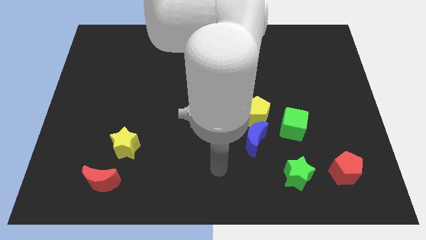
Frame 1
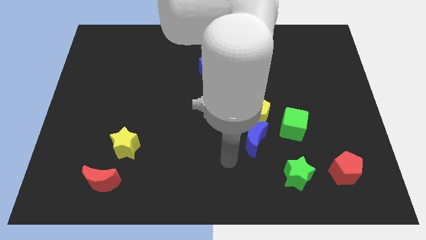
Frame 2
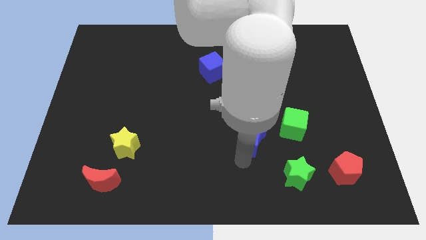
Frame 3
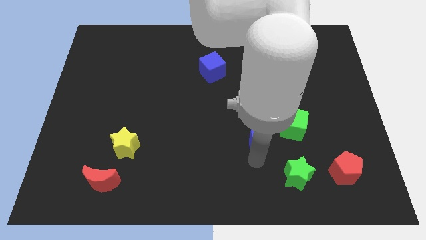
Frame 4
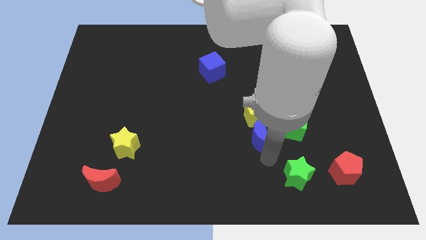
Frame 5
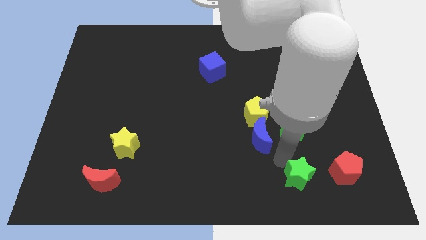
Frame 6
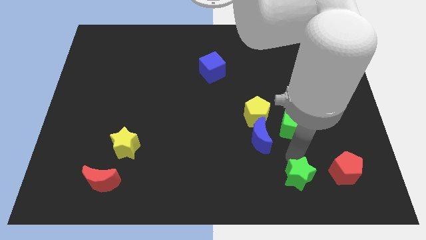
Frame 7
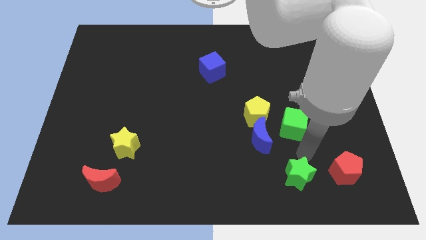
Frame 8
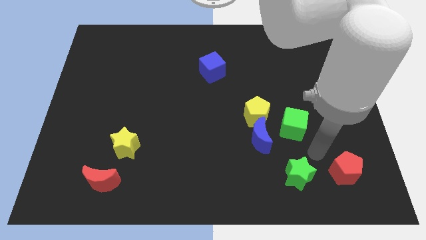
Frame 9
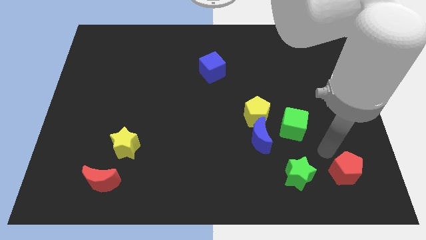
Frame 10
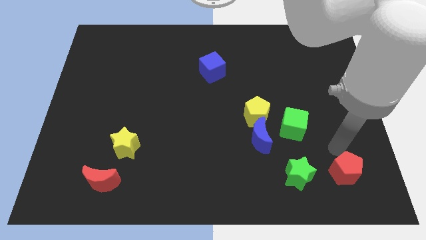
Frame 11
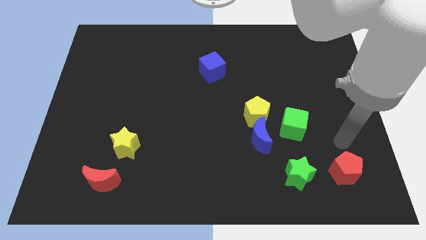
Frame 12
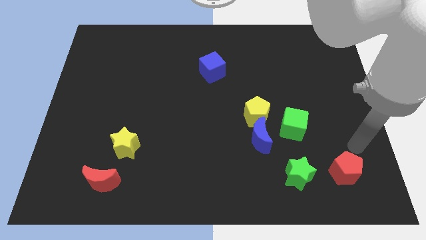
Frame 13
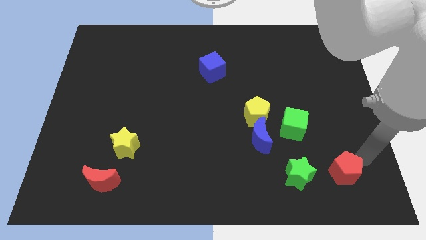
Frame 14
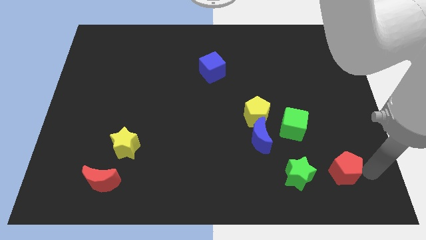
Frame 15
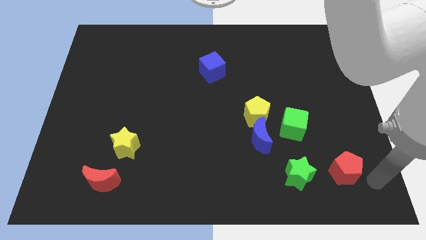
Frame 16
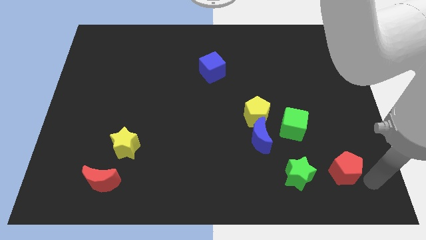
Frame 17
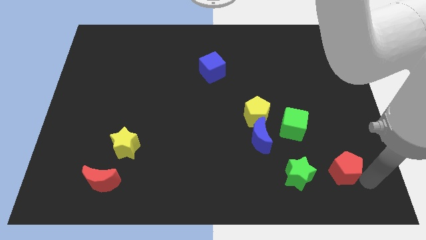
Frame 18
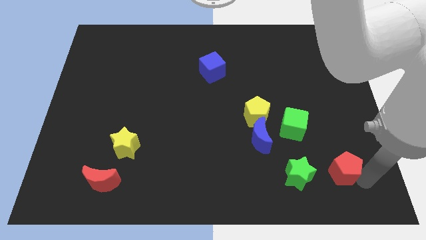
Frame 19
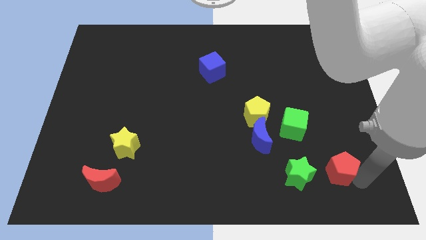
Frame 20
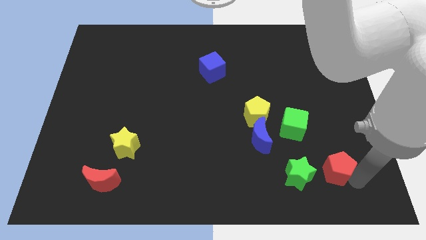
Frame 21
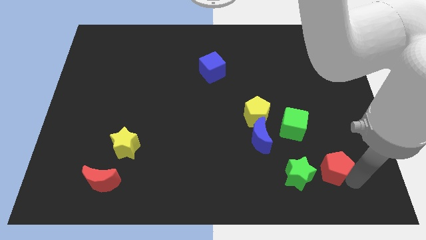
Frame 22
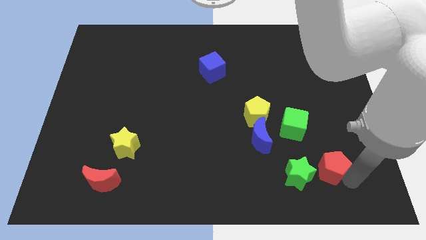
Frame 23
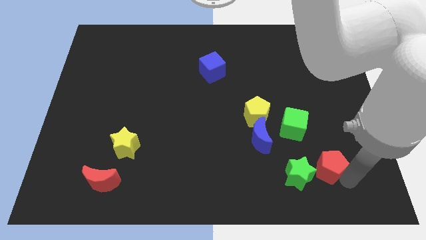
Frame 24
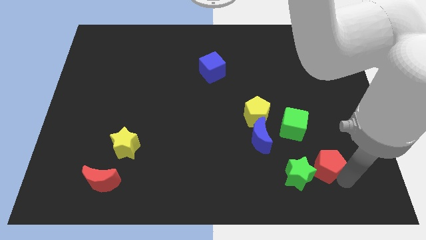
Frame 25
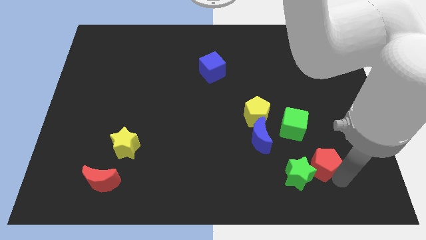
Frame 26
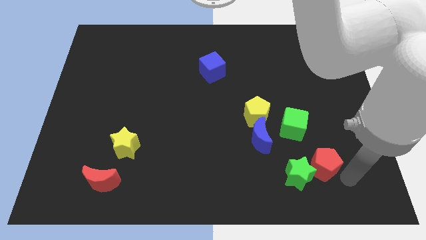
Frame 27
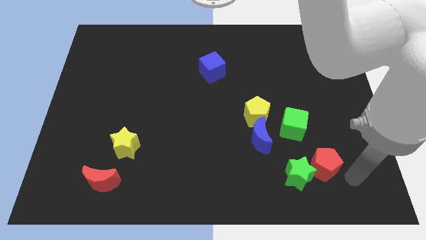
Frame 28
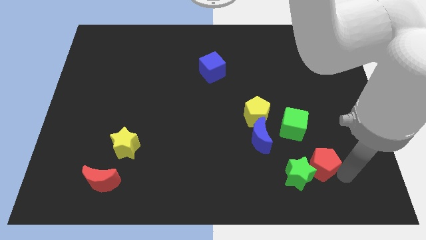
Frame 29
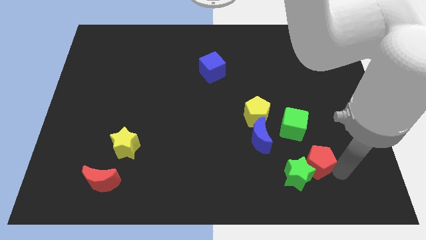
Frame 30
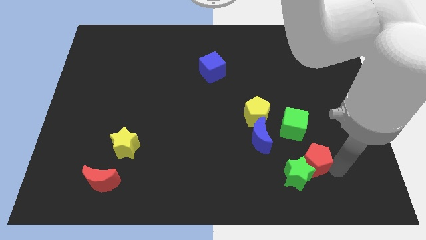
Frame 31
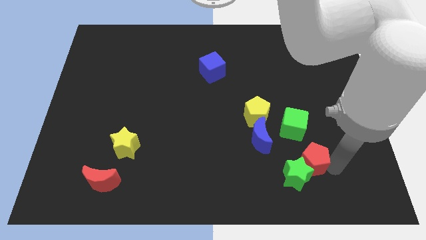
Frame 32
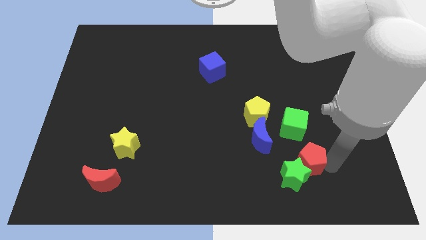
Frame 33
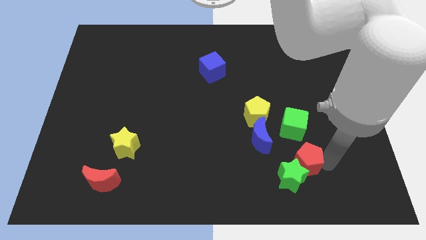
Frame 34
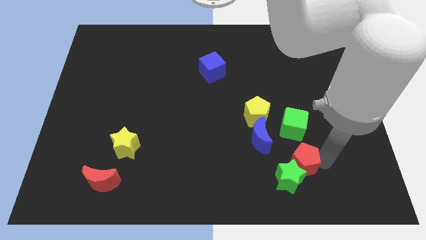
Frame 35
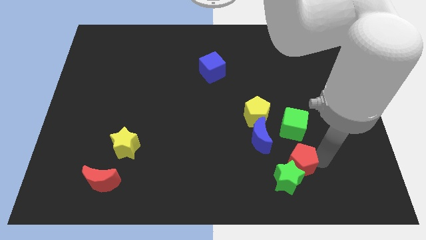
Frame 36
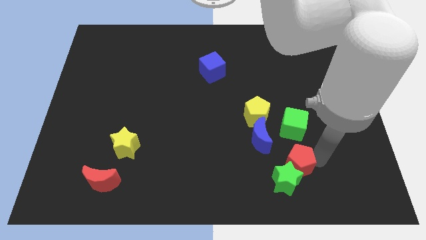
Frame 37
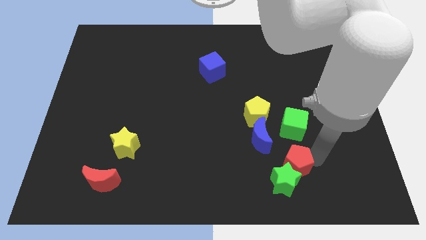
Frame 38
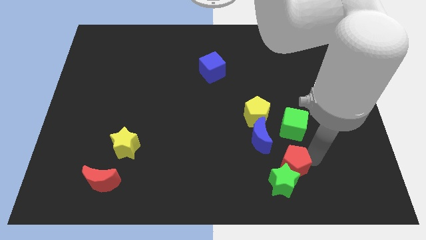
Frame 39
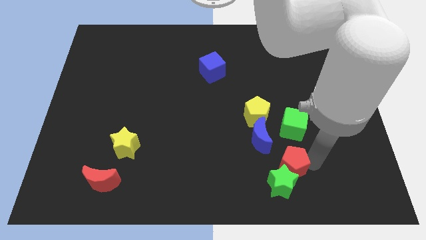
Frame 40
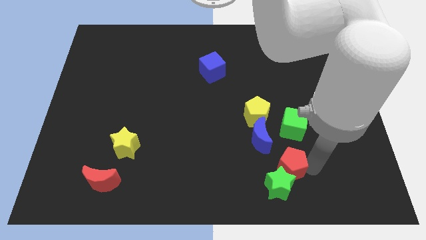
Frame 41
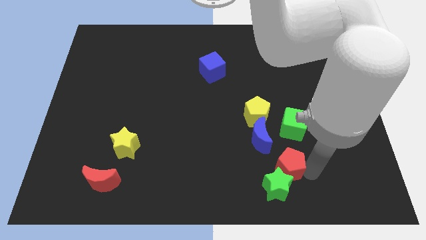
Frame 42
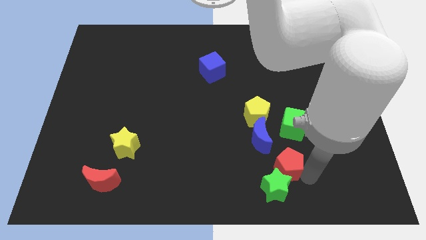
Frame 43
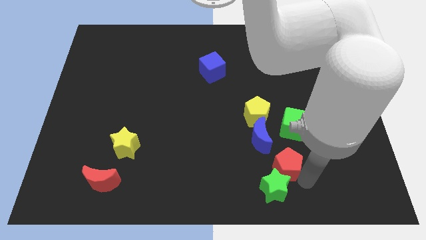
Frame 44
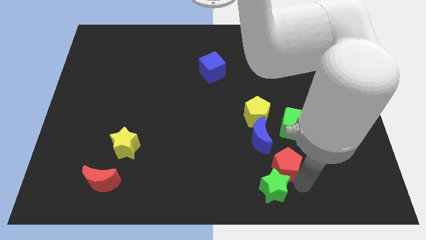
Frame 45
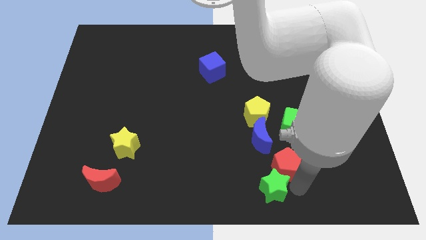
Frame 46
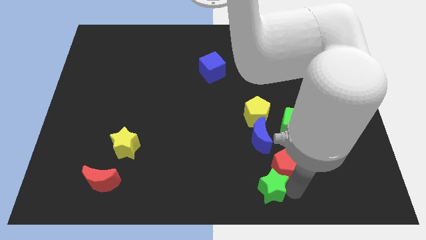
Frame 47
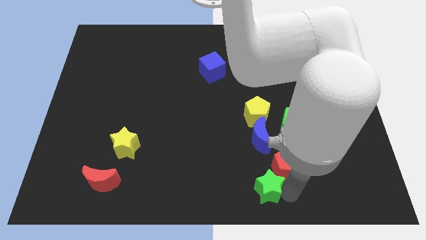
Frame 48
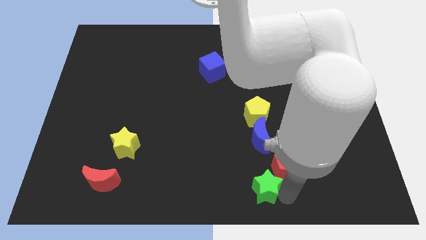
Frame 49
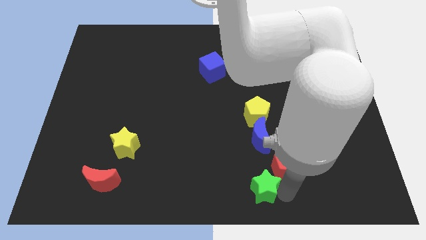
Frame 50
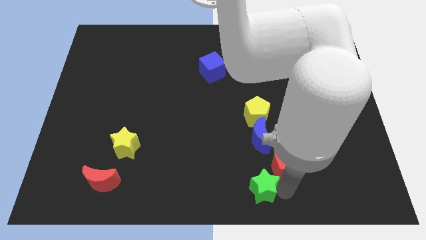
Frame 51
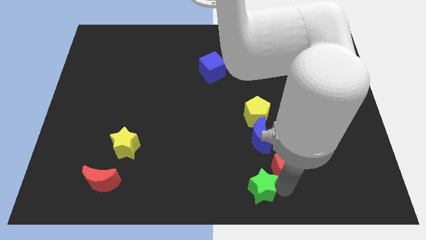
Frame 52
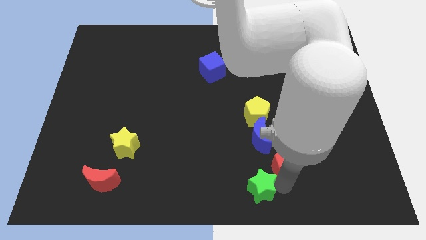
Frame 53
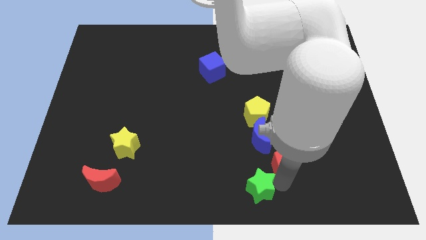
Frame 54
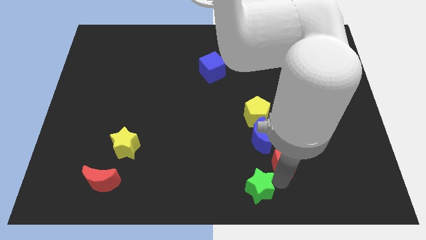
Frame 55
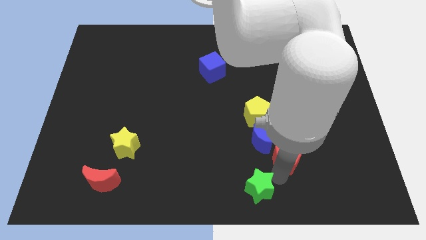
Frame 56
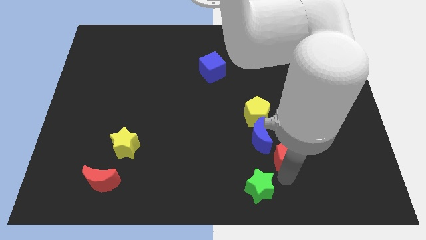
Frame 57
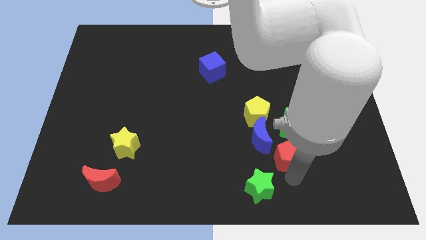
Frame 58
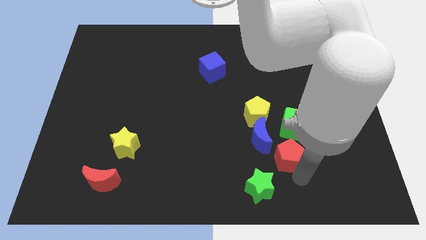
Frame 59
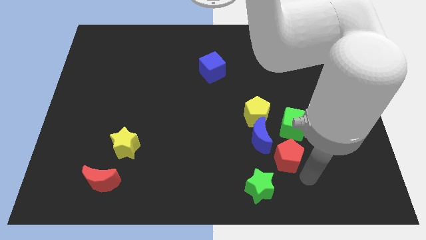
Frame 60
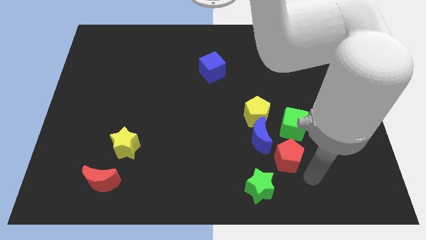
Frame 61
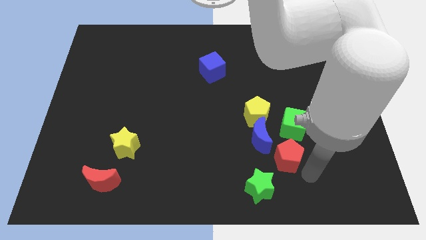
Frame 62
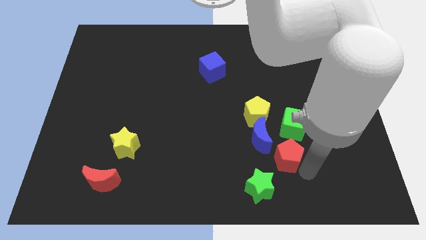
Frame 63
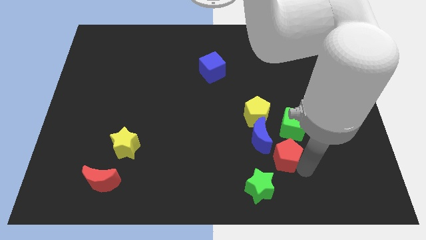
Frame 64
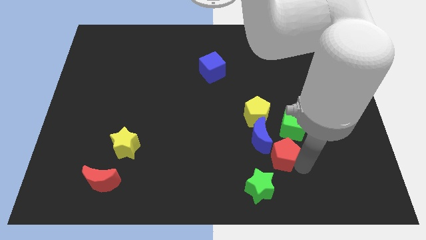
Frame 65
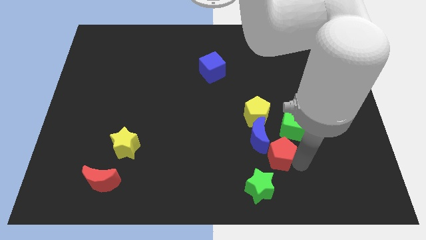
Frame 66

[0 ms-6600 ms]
move the red pentagon to the blue moon

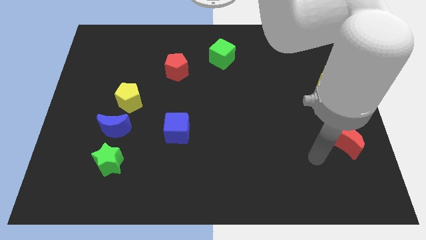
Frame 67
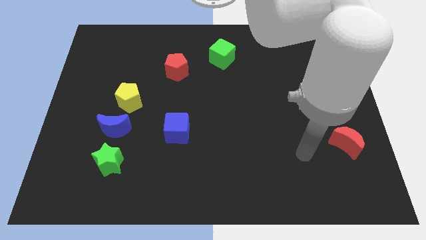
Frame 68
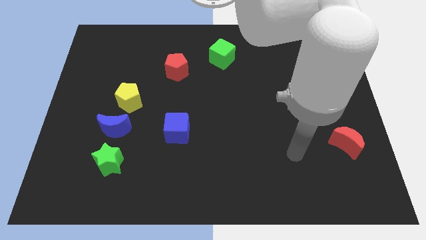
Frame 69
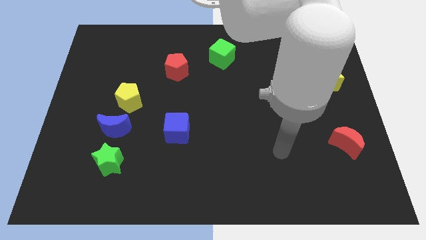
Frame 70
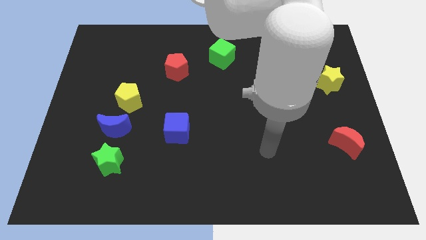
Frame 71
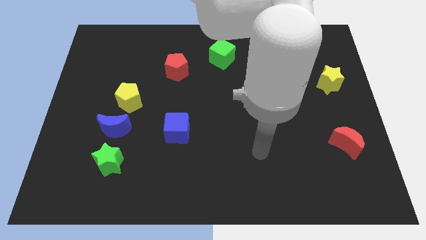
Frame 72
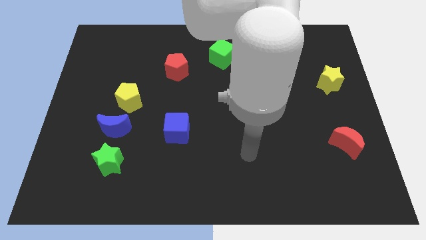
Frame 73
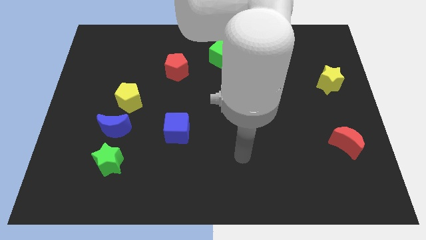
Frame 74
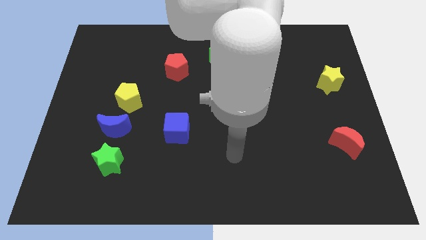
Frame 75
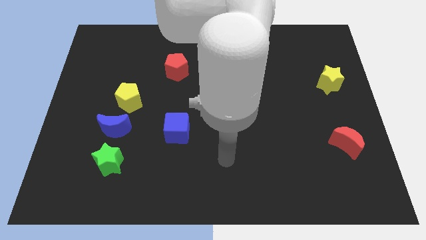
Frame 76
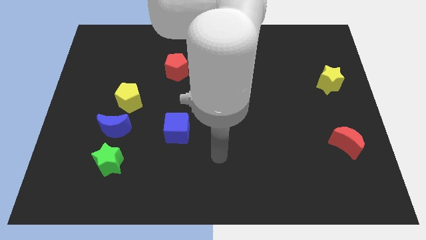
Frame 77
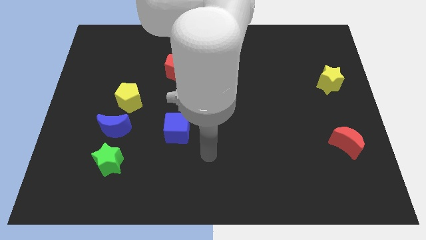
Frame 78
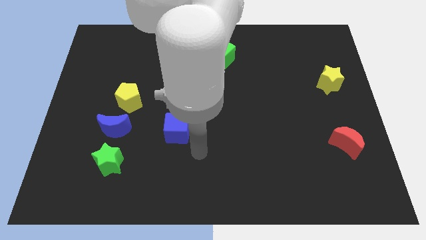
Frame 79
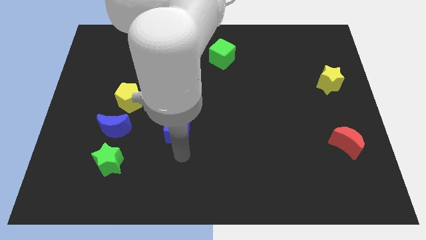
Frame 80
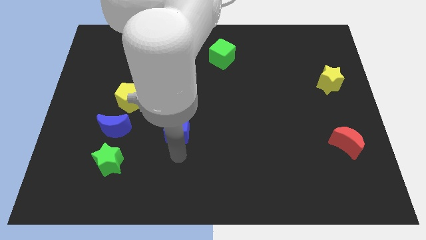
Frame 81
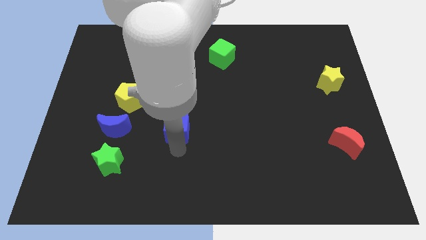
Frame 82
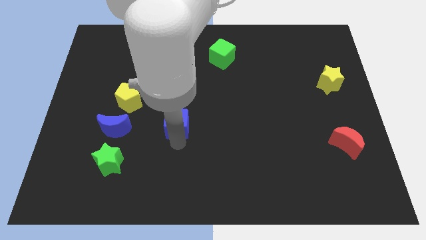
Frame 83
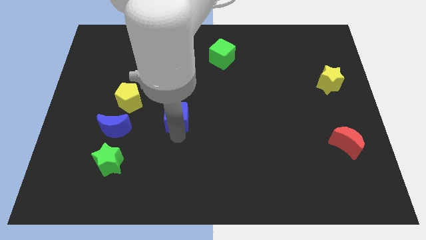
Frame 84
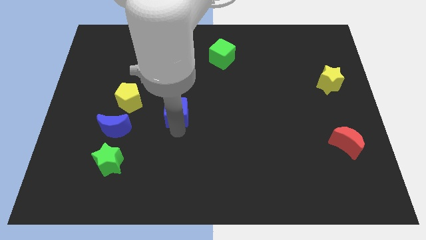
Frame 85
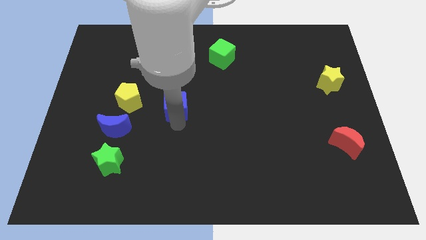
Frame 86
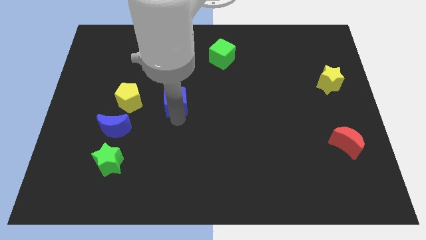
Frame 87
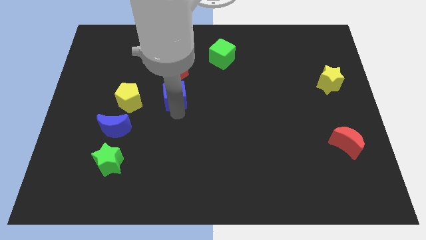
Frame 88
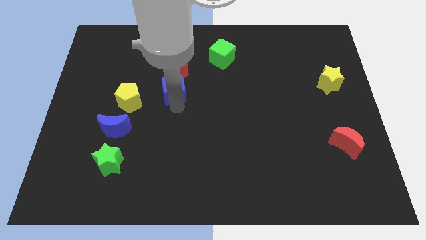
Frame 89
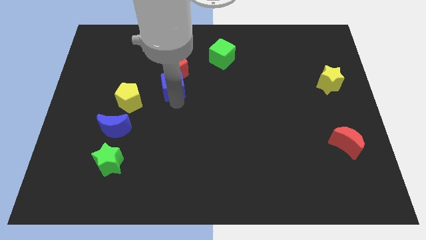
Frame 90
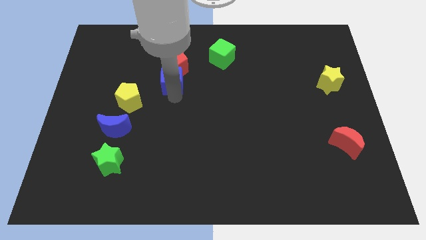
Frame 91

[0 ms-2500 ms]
move the blue cube to the red pentagon
